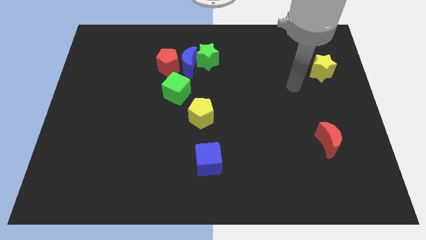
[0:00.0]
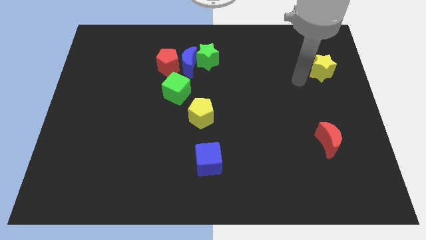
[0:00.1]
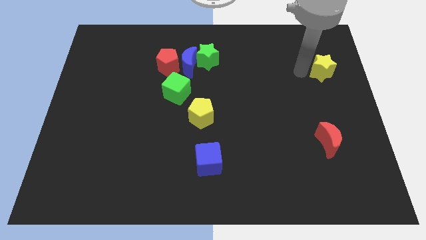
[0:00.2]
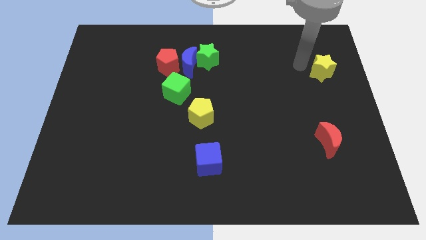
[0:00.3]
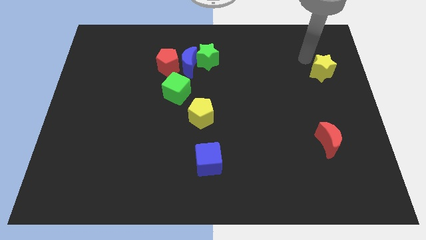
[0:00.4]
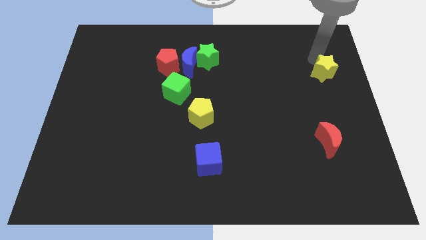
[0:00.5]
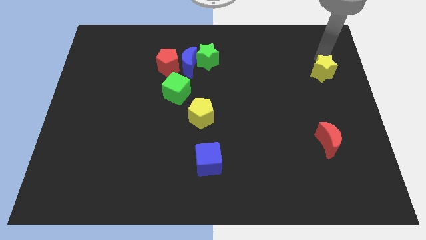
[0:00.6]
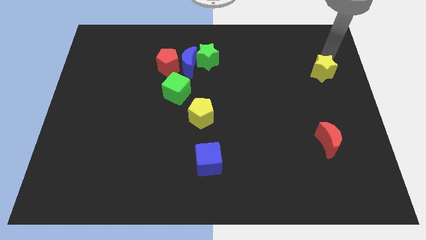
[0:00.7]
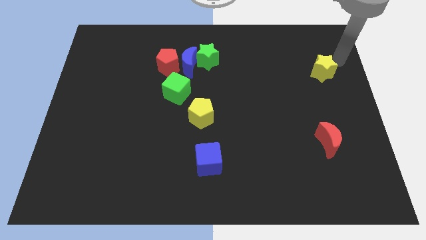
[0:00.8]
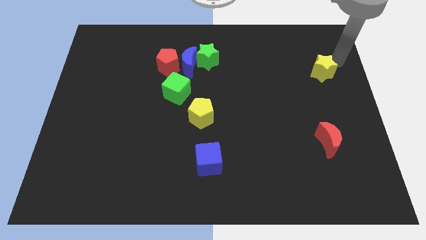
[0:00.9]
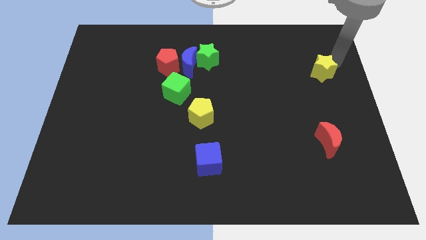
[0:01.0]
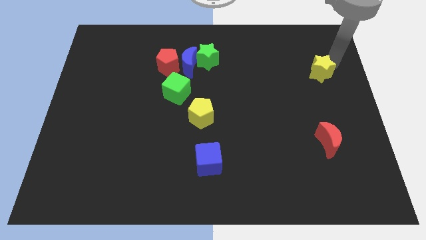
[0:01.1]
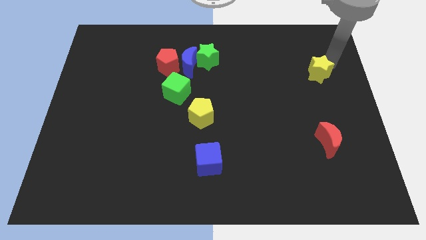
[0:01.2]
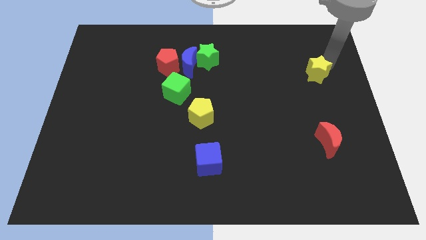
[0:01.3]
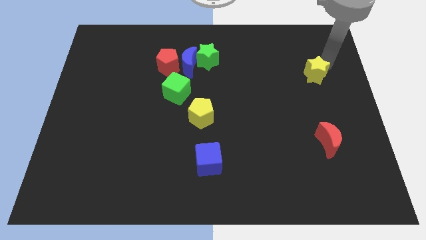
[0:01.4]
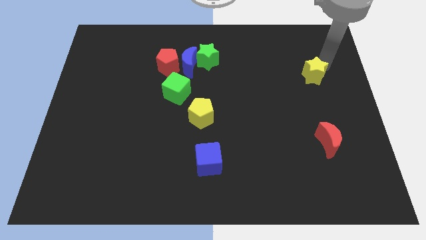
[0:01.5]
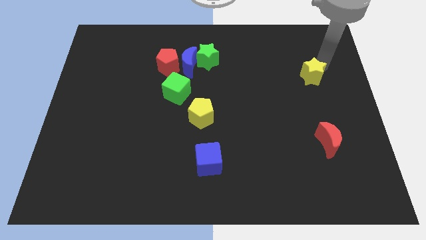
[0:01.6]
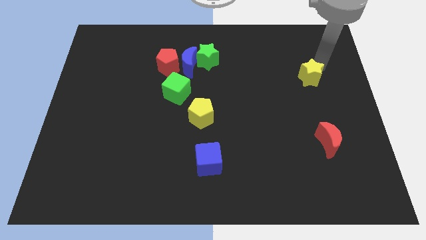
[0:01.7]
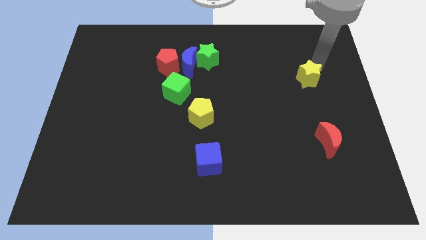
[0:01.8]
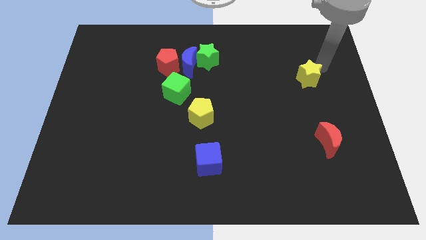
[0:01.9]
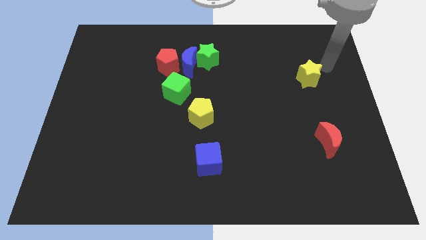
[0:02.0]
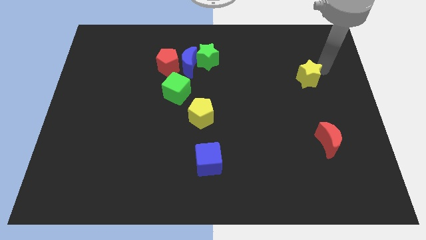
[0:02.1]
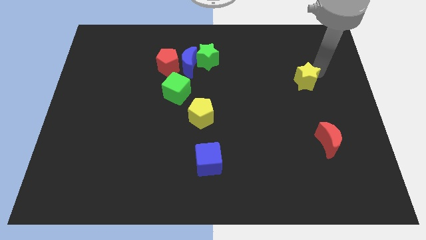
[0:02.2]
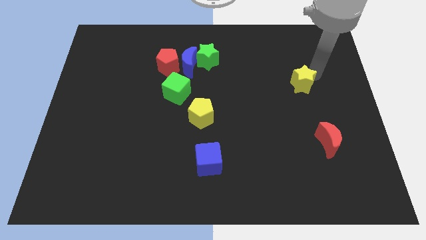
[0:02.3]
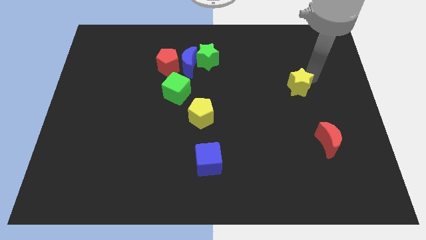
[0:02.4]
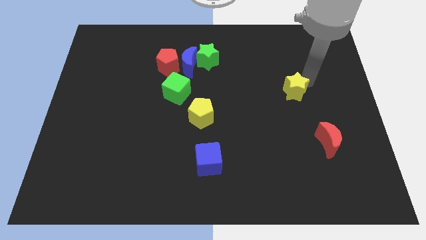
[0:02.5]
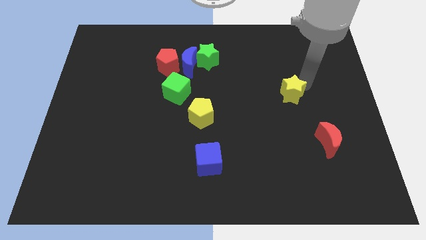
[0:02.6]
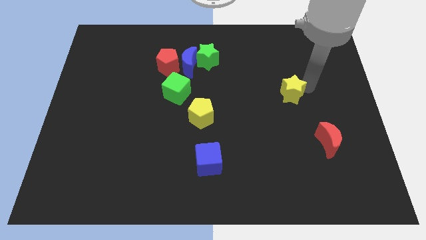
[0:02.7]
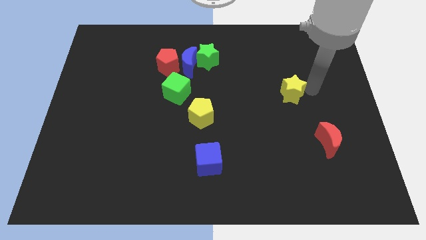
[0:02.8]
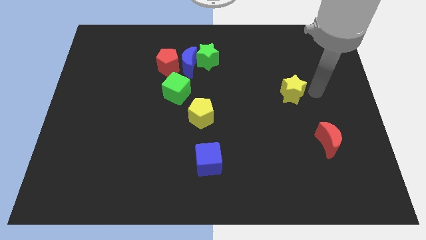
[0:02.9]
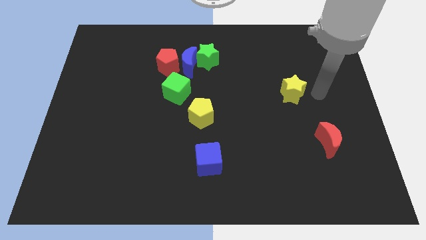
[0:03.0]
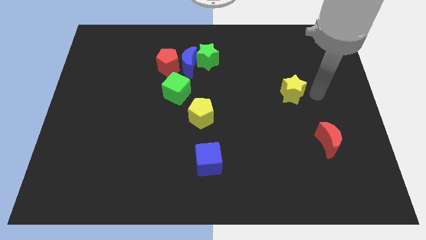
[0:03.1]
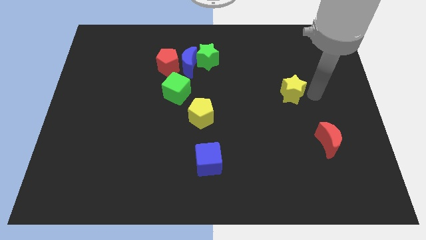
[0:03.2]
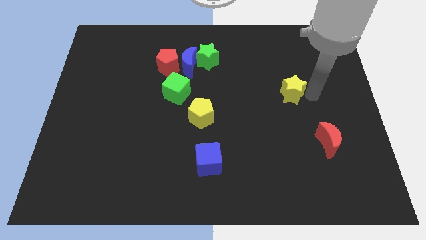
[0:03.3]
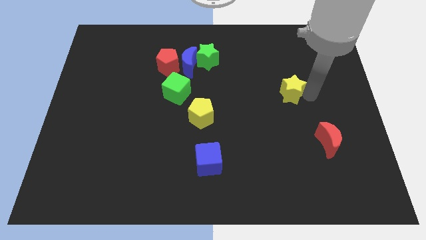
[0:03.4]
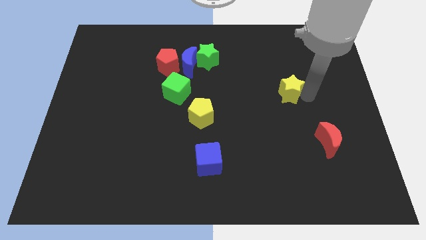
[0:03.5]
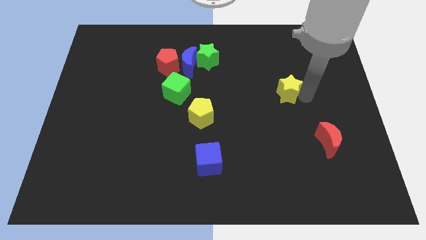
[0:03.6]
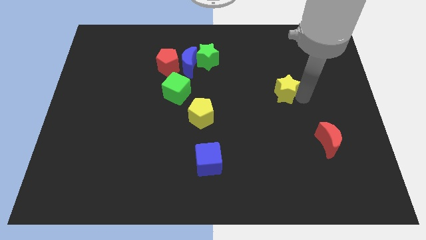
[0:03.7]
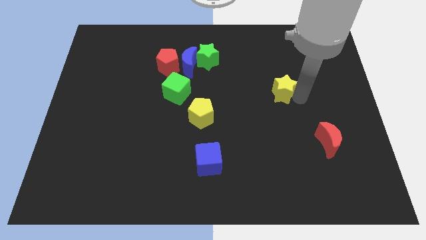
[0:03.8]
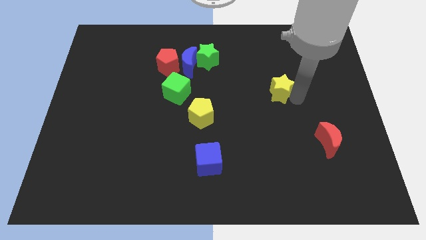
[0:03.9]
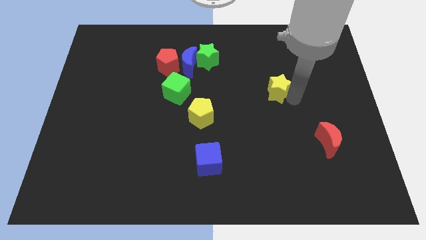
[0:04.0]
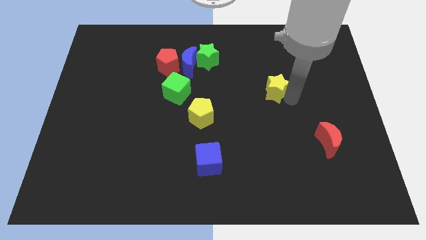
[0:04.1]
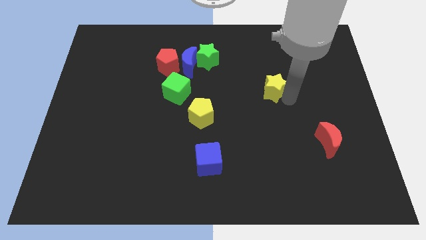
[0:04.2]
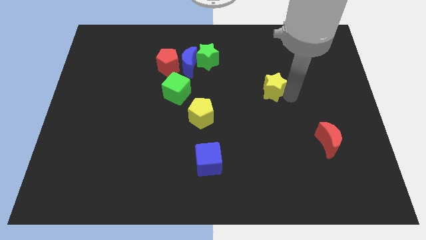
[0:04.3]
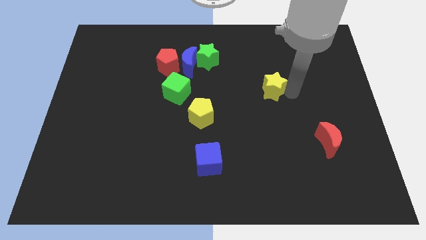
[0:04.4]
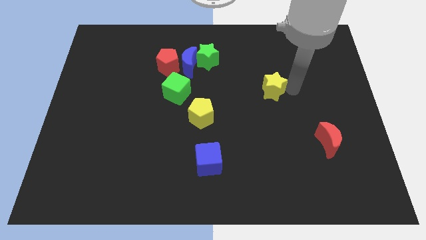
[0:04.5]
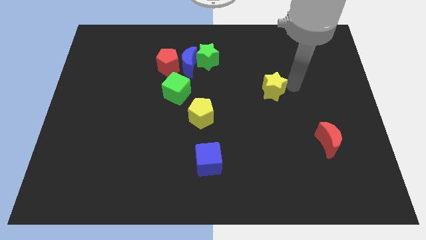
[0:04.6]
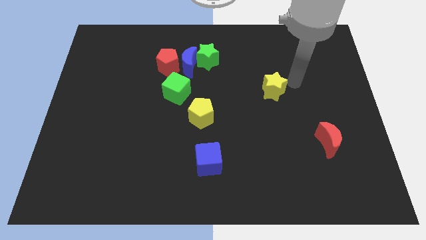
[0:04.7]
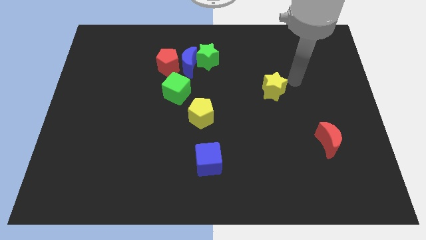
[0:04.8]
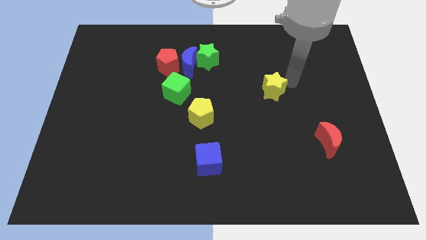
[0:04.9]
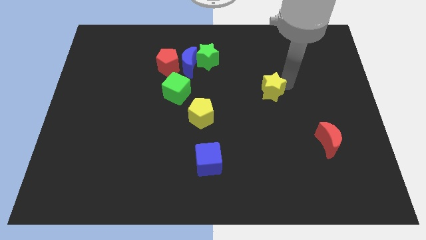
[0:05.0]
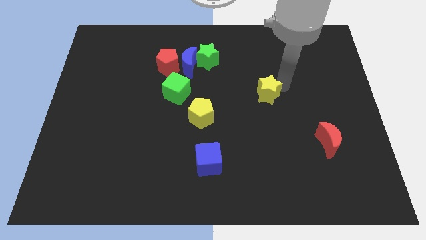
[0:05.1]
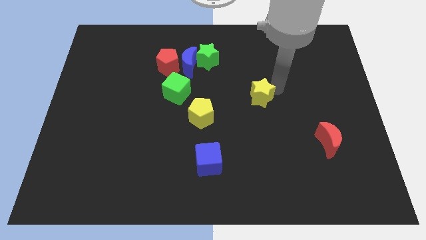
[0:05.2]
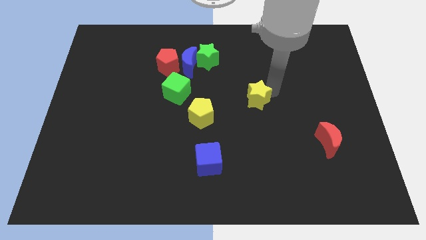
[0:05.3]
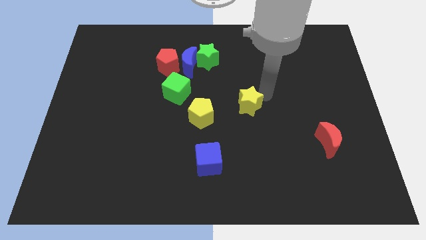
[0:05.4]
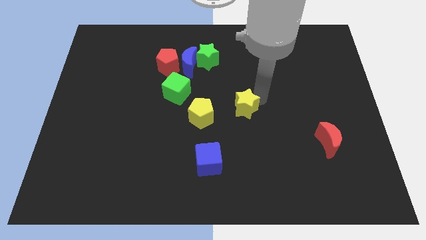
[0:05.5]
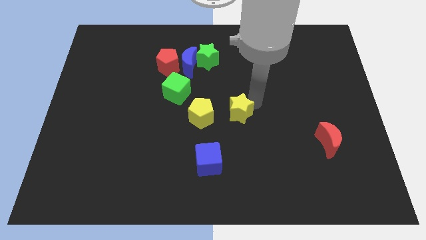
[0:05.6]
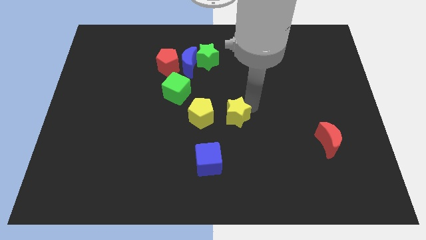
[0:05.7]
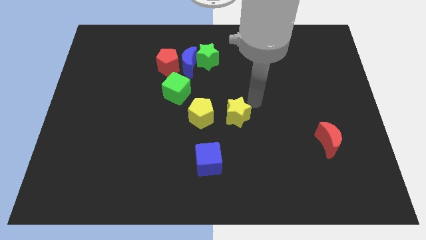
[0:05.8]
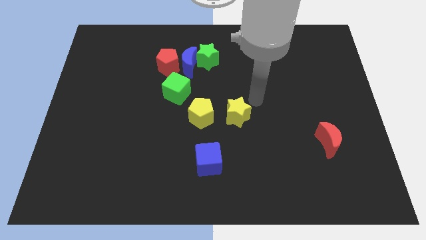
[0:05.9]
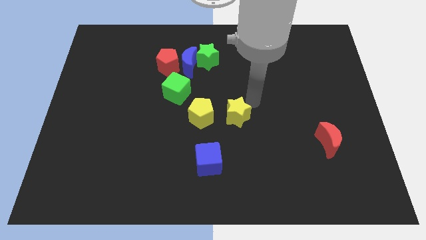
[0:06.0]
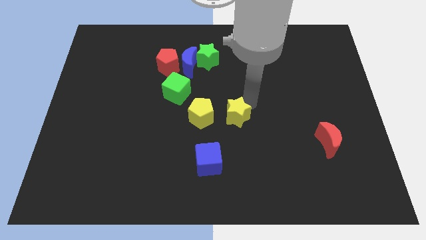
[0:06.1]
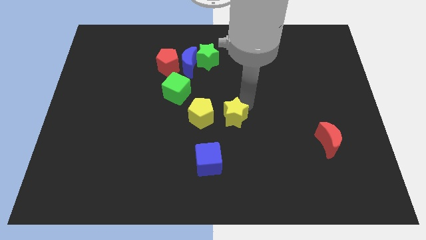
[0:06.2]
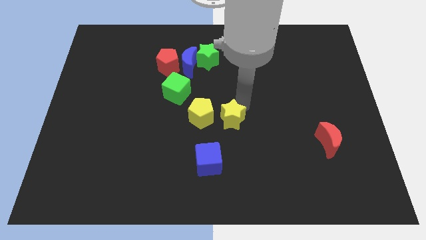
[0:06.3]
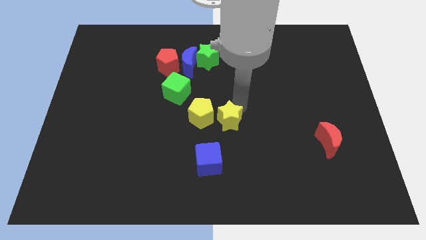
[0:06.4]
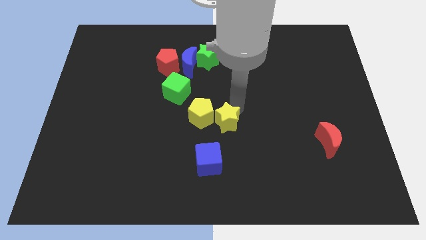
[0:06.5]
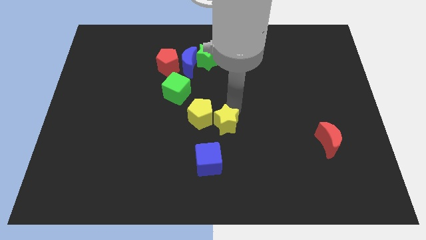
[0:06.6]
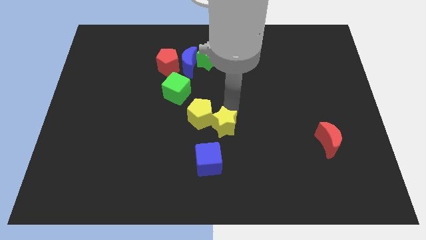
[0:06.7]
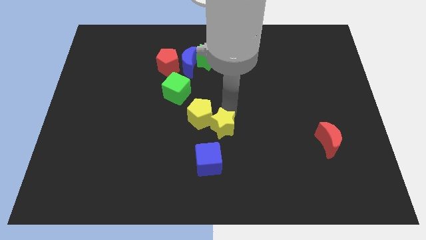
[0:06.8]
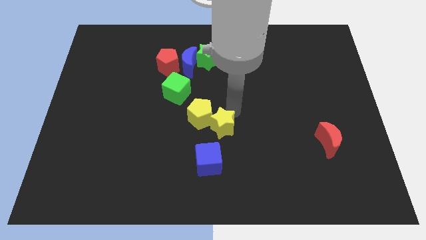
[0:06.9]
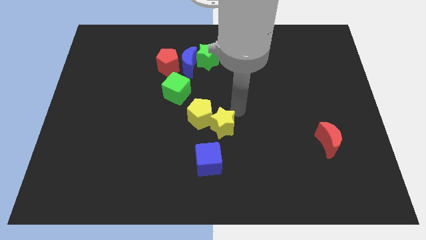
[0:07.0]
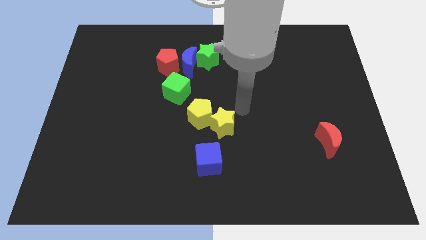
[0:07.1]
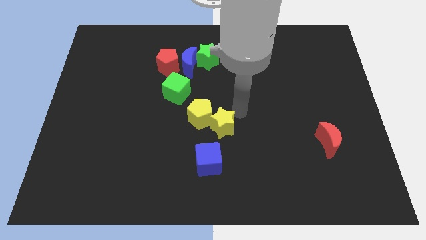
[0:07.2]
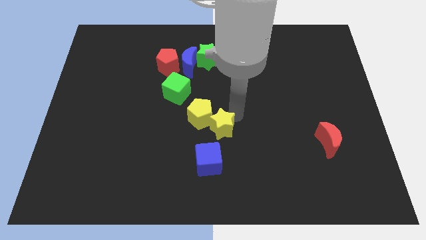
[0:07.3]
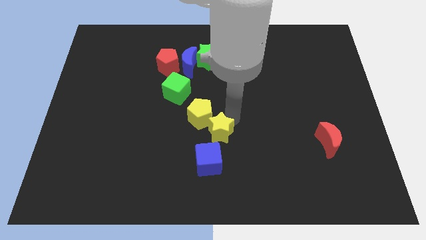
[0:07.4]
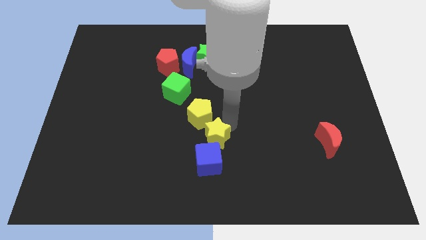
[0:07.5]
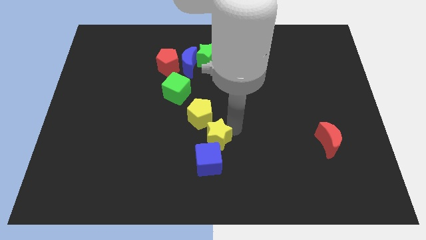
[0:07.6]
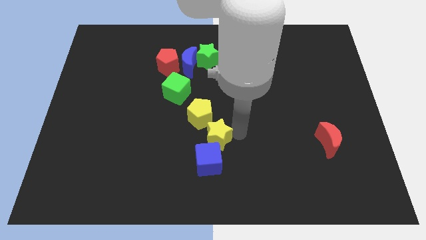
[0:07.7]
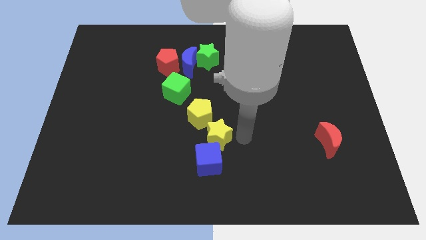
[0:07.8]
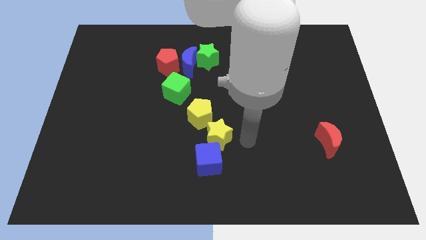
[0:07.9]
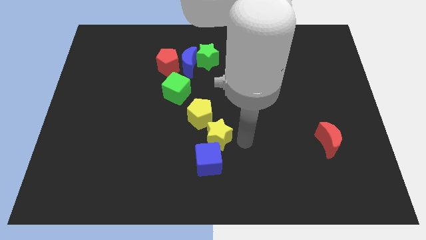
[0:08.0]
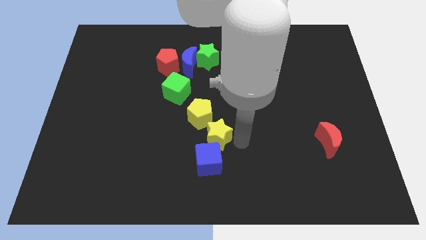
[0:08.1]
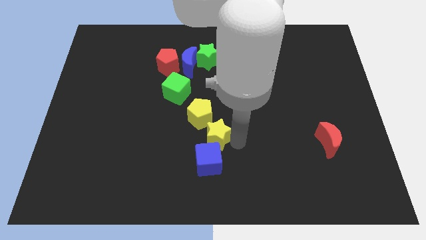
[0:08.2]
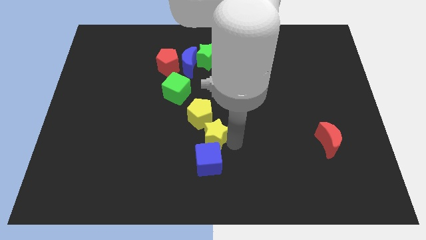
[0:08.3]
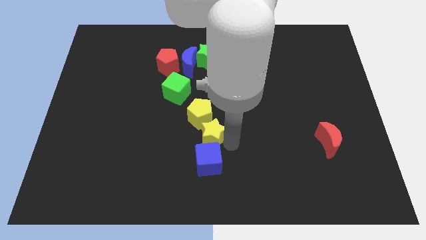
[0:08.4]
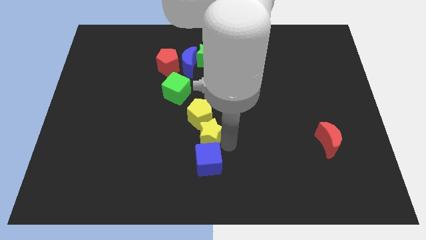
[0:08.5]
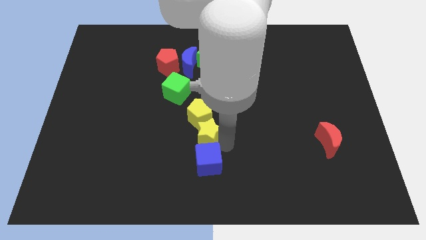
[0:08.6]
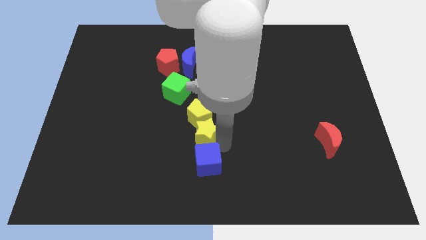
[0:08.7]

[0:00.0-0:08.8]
slide the yellow star diagonally down and to the left of the yellow pentagon
